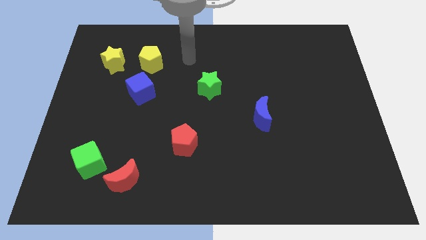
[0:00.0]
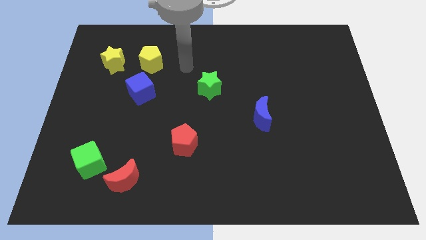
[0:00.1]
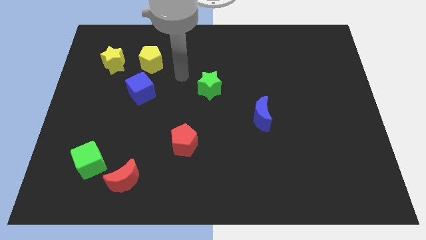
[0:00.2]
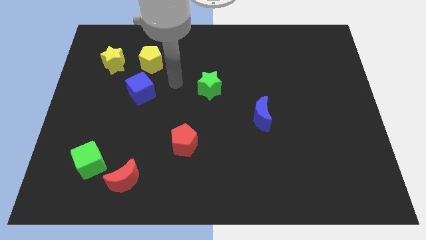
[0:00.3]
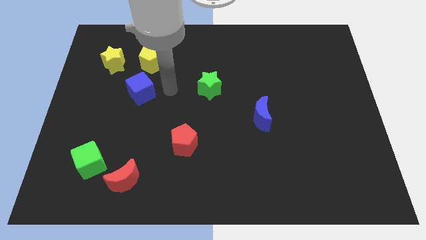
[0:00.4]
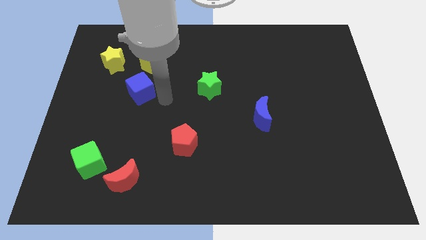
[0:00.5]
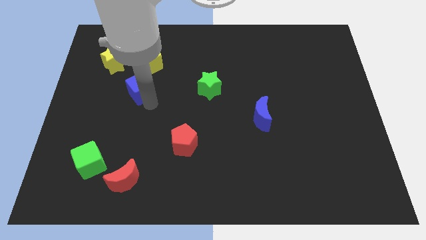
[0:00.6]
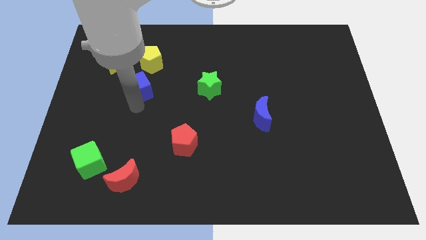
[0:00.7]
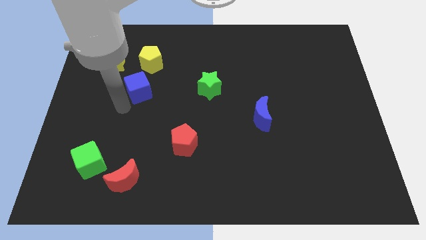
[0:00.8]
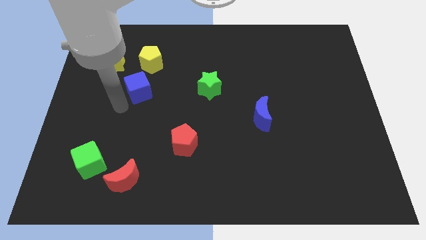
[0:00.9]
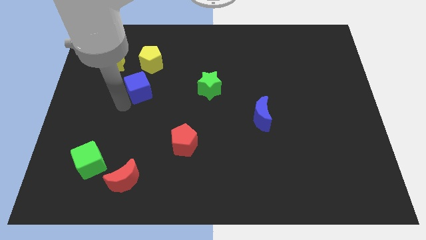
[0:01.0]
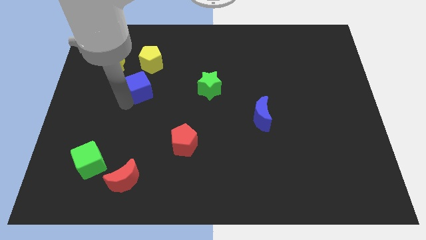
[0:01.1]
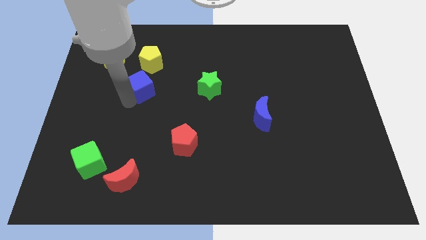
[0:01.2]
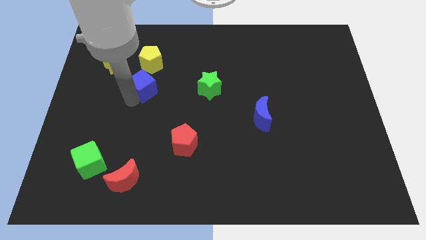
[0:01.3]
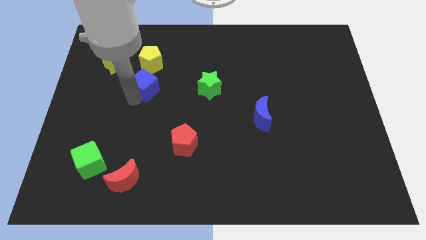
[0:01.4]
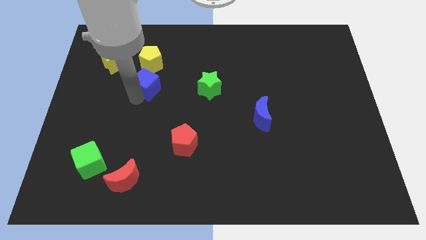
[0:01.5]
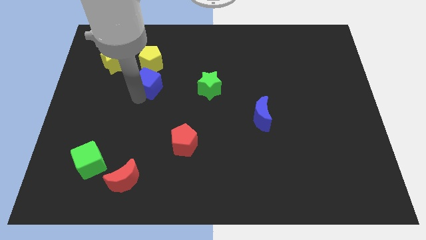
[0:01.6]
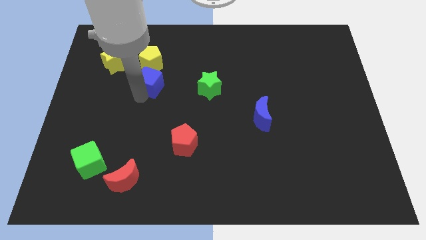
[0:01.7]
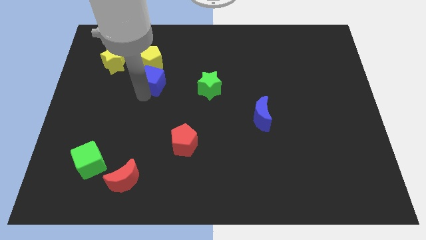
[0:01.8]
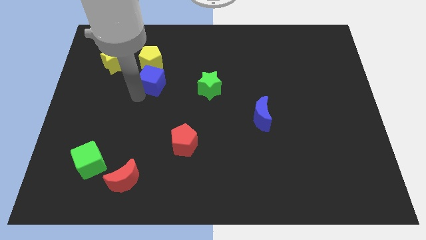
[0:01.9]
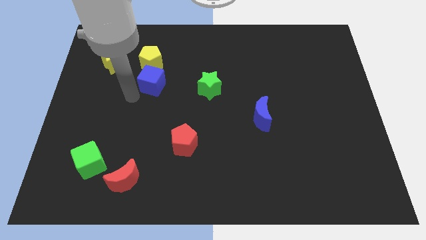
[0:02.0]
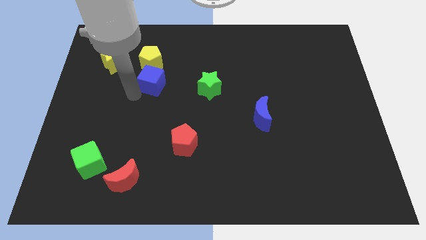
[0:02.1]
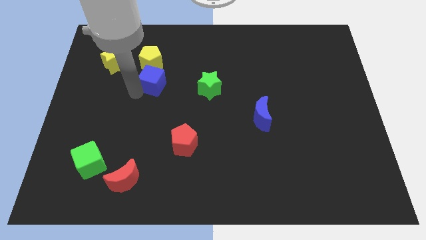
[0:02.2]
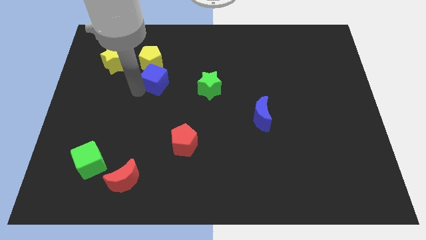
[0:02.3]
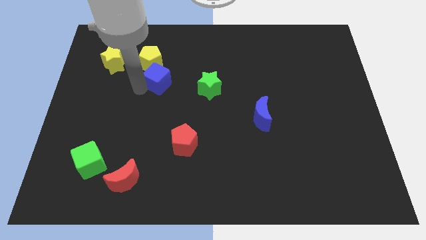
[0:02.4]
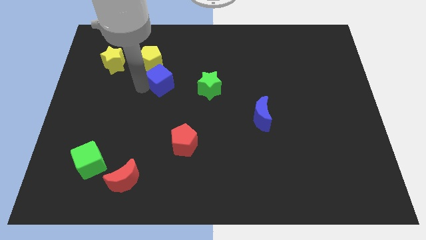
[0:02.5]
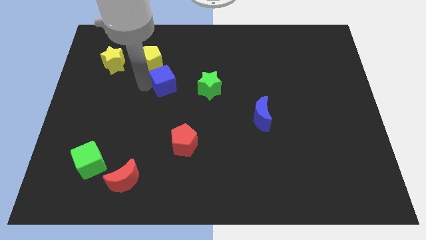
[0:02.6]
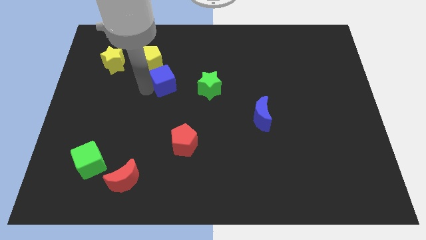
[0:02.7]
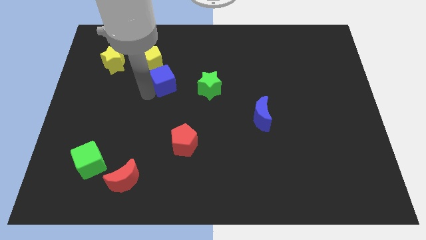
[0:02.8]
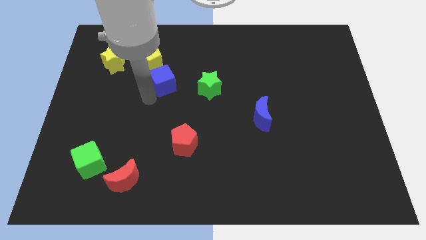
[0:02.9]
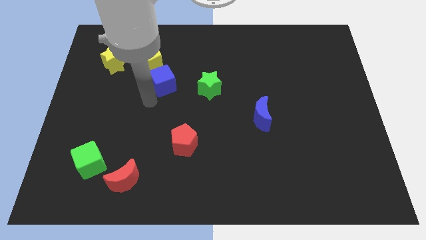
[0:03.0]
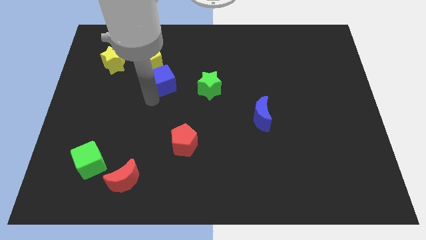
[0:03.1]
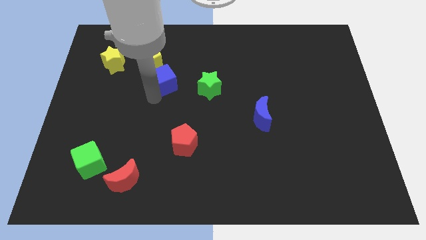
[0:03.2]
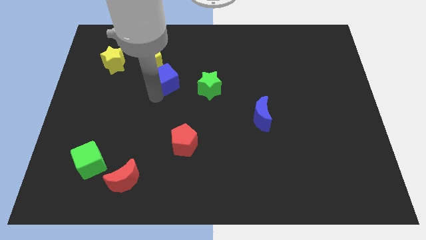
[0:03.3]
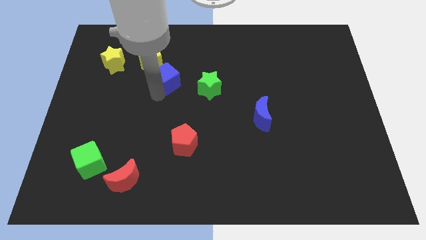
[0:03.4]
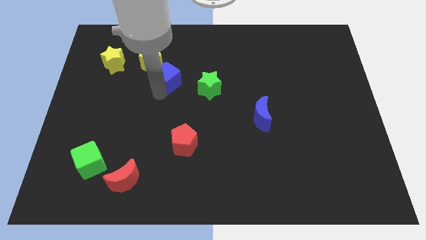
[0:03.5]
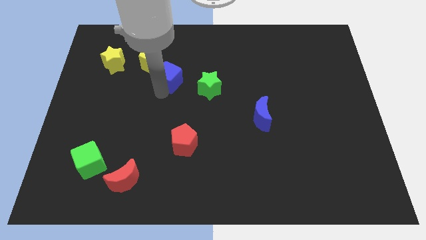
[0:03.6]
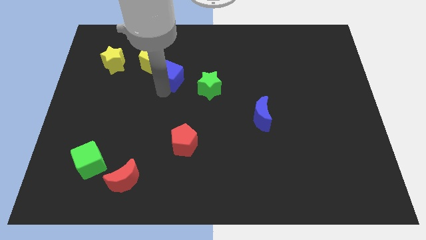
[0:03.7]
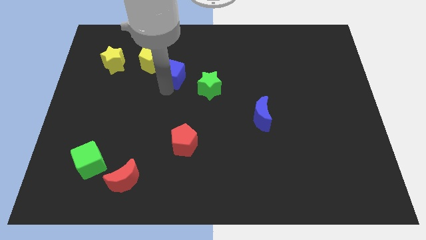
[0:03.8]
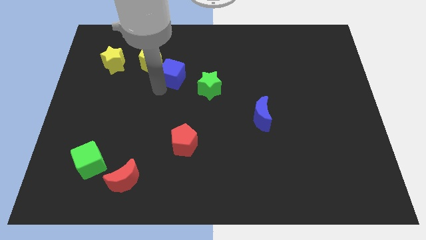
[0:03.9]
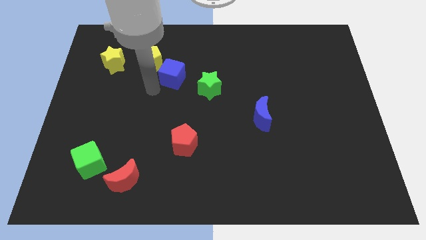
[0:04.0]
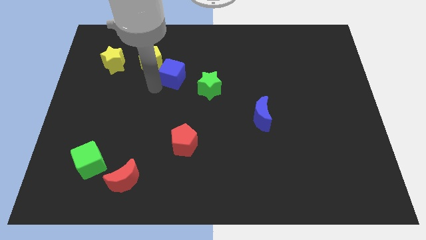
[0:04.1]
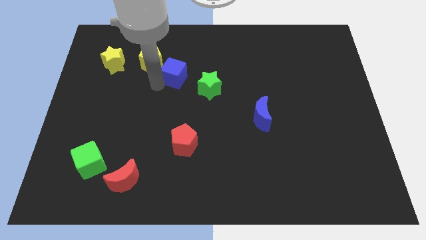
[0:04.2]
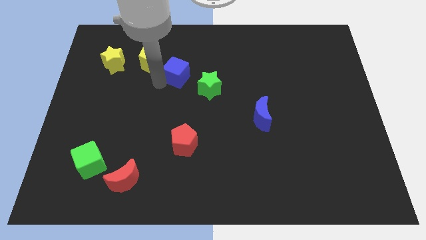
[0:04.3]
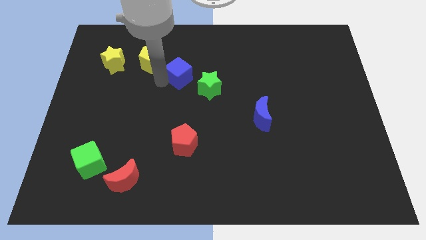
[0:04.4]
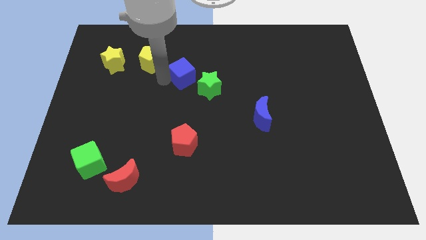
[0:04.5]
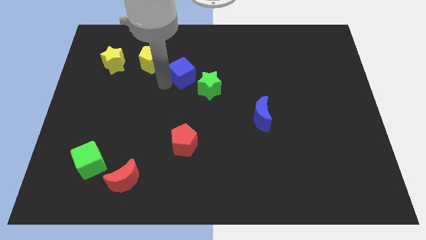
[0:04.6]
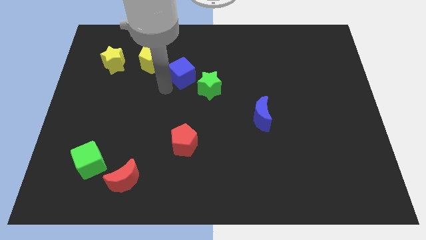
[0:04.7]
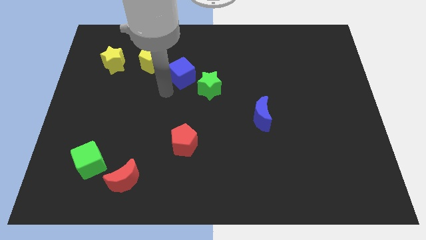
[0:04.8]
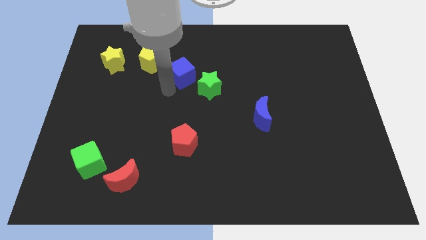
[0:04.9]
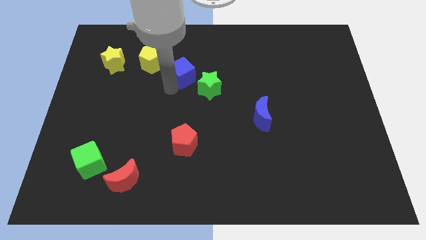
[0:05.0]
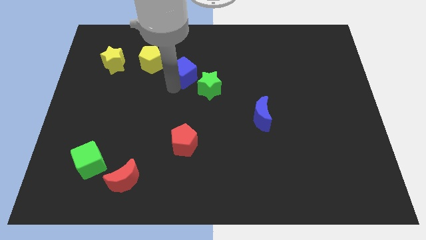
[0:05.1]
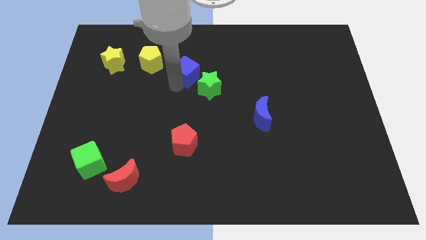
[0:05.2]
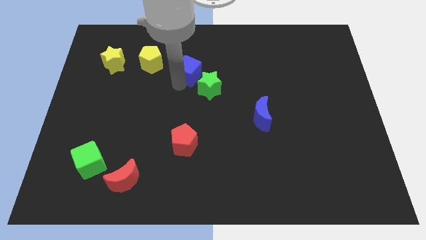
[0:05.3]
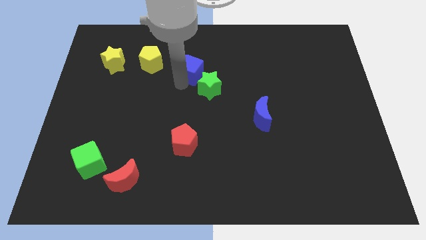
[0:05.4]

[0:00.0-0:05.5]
slide the blue cube to the top of the green star

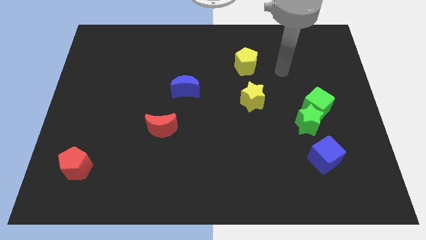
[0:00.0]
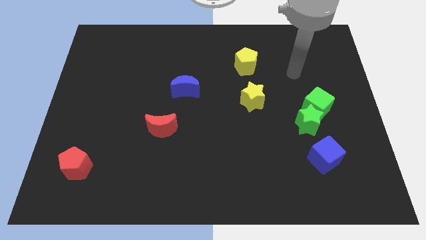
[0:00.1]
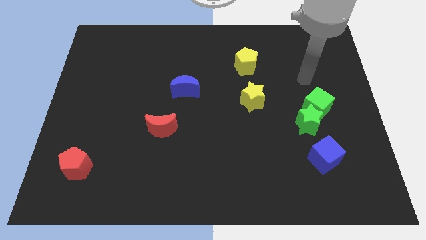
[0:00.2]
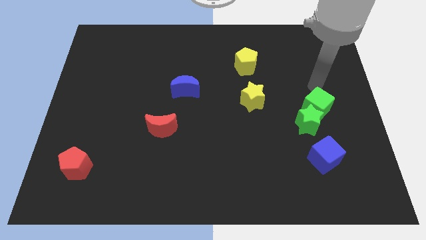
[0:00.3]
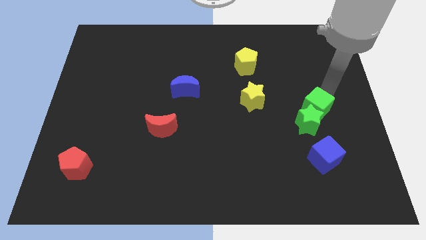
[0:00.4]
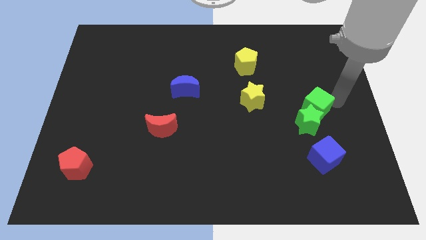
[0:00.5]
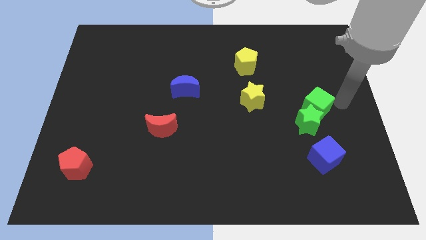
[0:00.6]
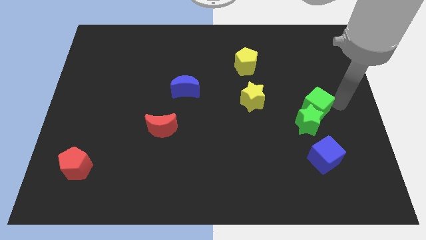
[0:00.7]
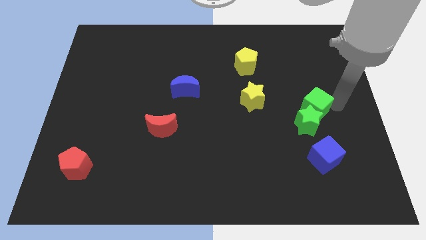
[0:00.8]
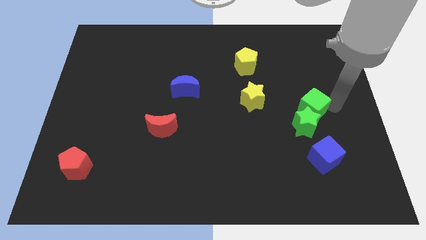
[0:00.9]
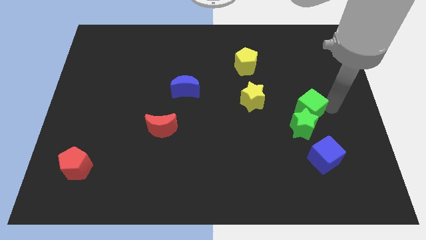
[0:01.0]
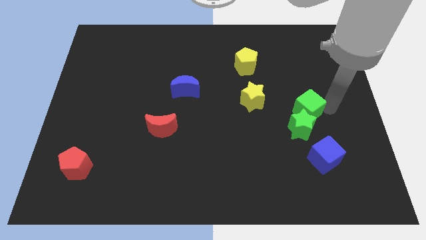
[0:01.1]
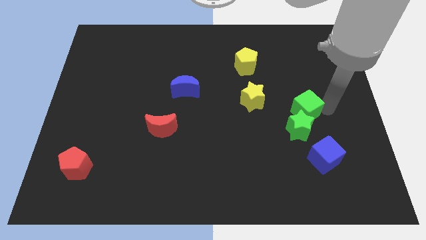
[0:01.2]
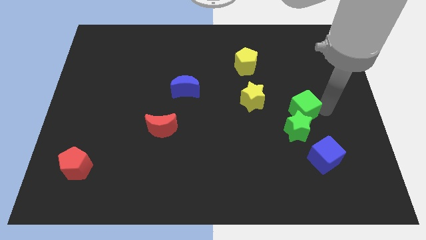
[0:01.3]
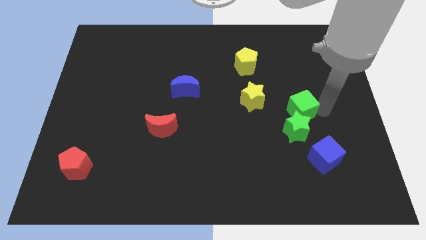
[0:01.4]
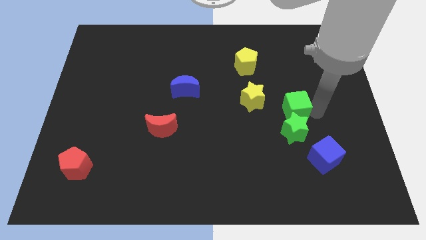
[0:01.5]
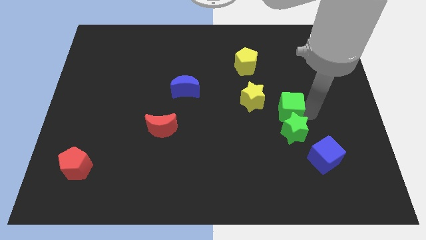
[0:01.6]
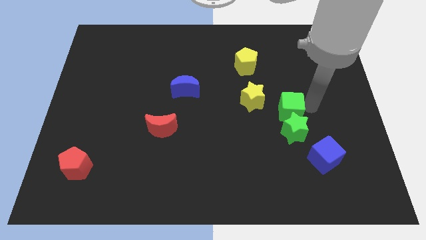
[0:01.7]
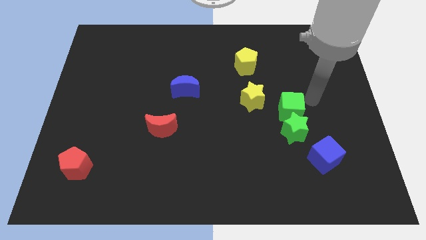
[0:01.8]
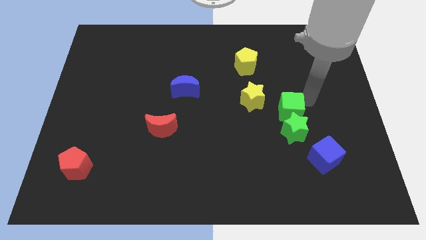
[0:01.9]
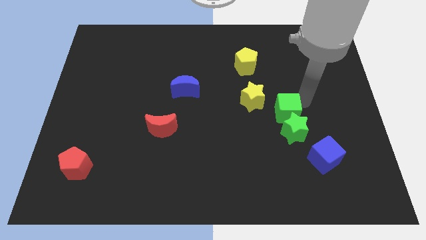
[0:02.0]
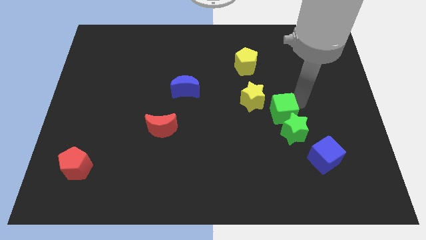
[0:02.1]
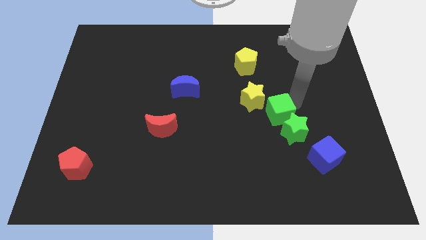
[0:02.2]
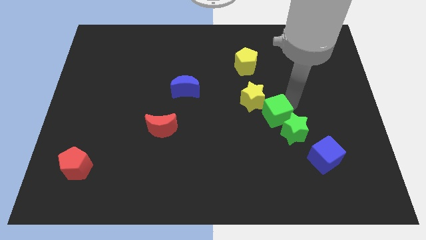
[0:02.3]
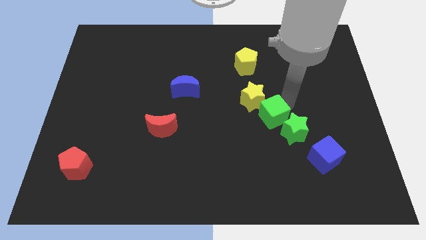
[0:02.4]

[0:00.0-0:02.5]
slide the green cube just left of the green star
